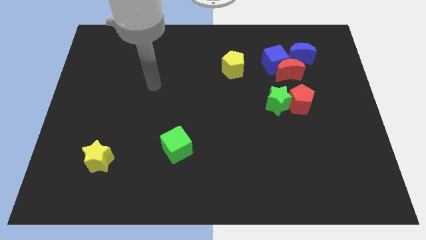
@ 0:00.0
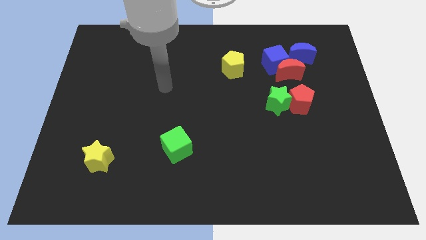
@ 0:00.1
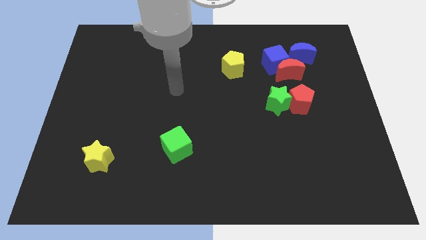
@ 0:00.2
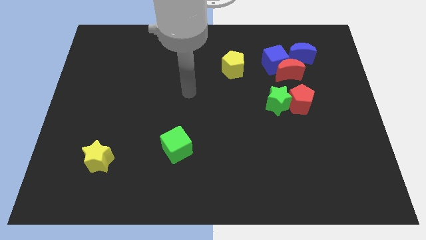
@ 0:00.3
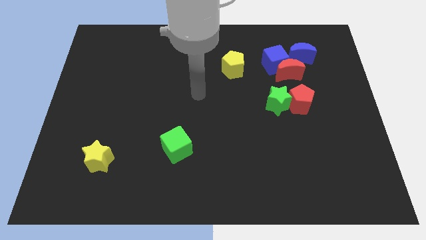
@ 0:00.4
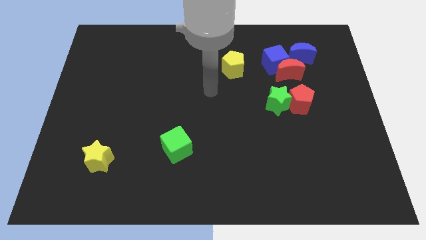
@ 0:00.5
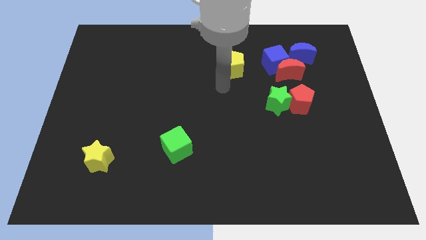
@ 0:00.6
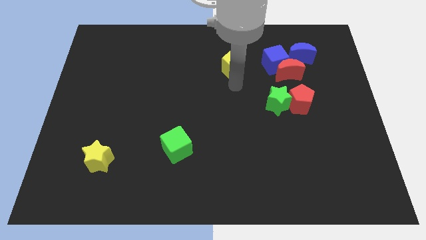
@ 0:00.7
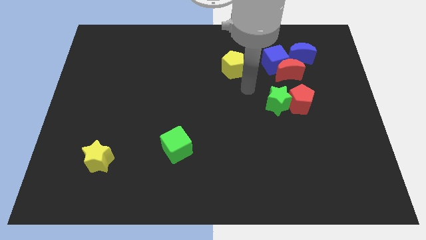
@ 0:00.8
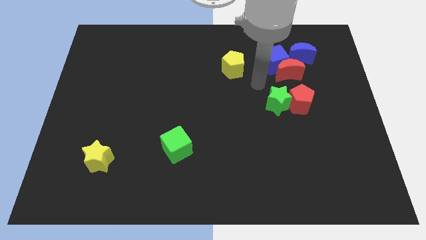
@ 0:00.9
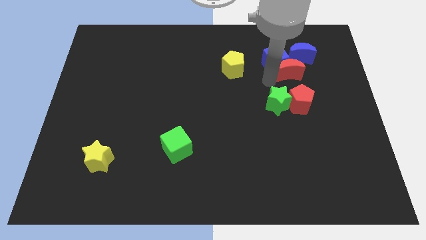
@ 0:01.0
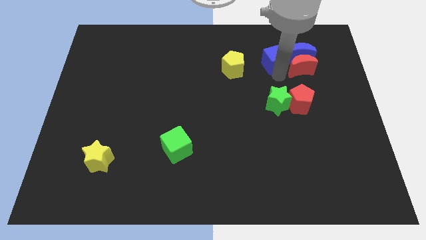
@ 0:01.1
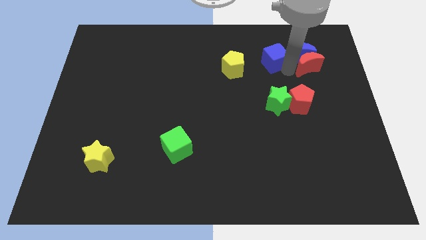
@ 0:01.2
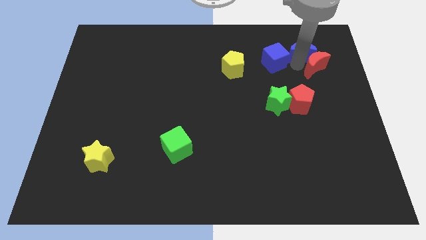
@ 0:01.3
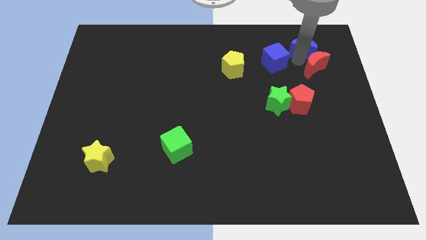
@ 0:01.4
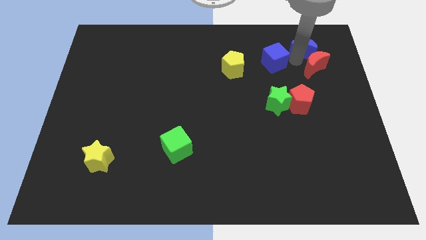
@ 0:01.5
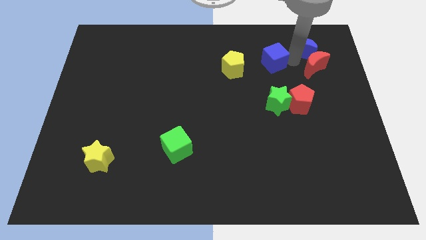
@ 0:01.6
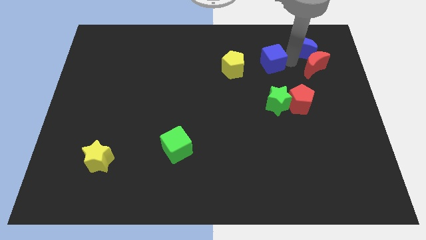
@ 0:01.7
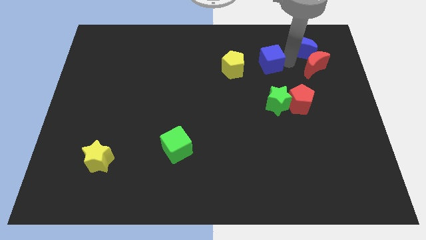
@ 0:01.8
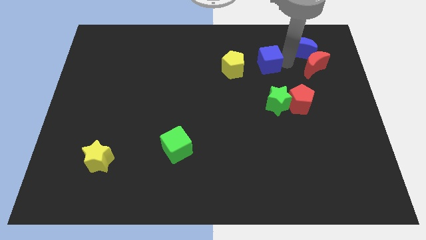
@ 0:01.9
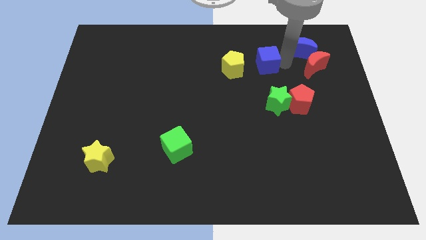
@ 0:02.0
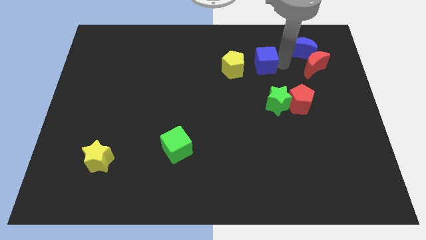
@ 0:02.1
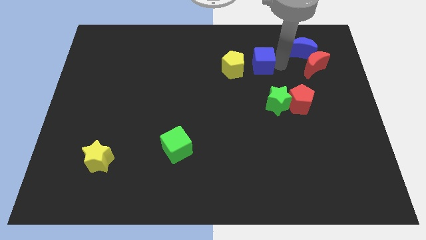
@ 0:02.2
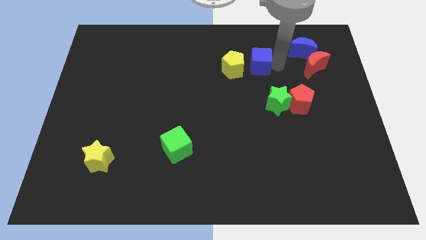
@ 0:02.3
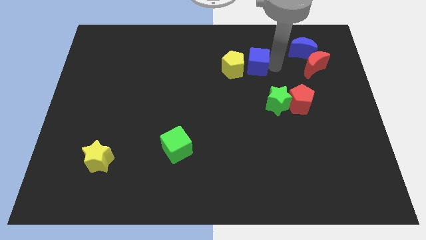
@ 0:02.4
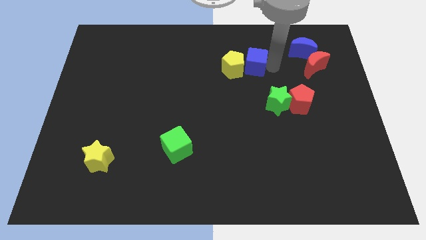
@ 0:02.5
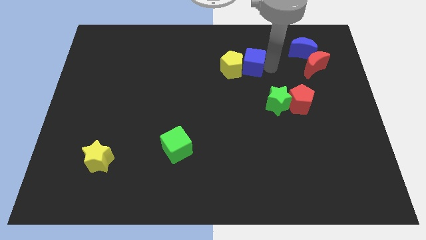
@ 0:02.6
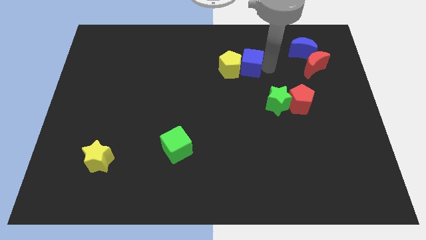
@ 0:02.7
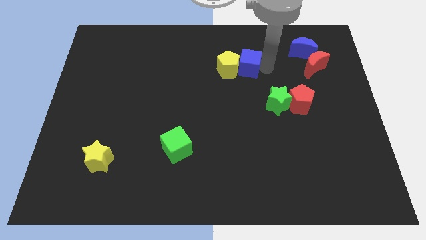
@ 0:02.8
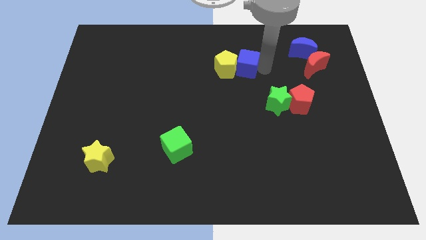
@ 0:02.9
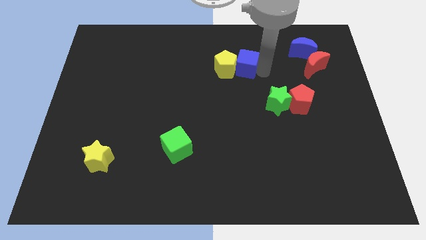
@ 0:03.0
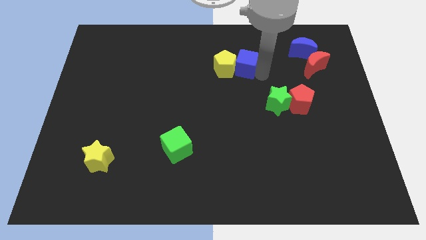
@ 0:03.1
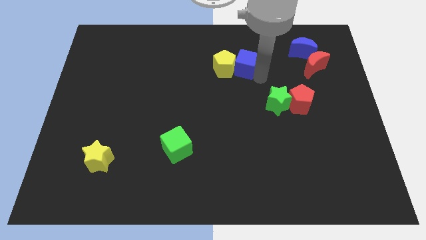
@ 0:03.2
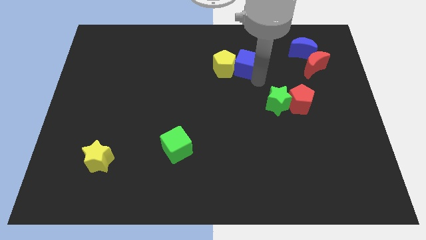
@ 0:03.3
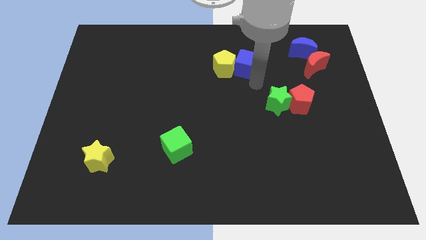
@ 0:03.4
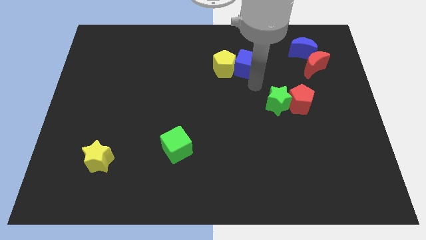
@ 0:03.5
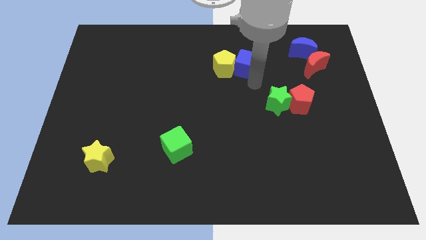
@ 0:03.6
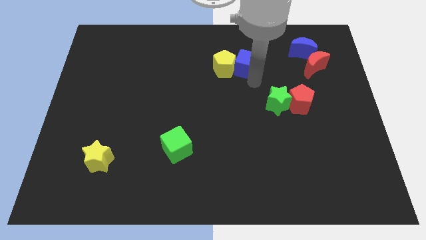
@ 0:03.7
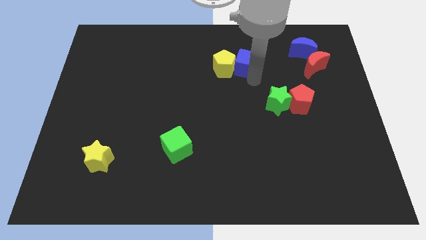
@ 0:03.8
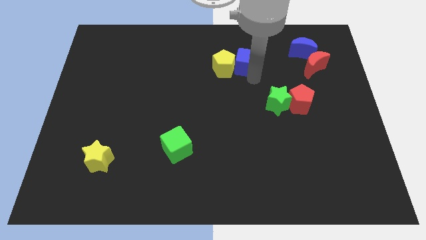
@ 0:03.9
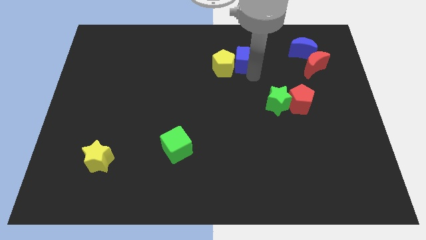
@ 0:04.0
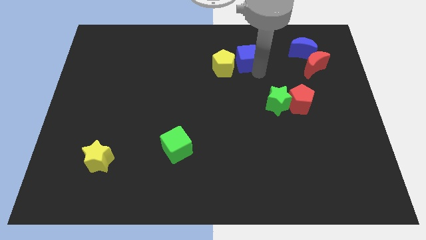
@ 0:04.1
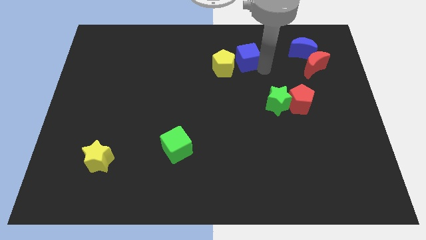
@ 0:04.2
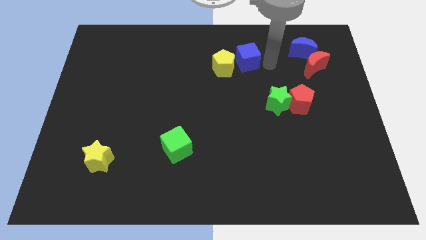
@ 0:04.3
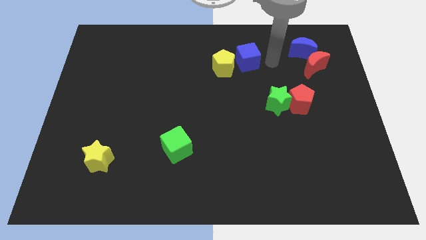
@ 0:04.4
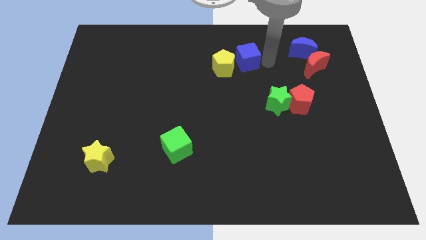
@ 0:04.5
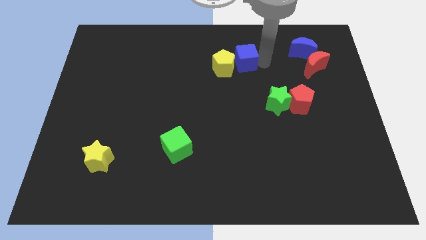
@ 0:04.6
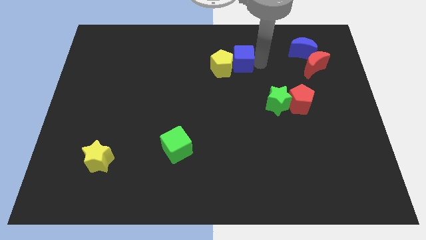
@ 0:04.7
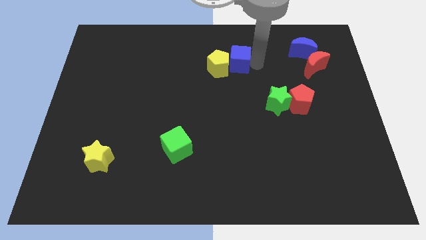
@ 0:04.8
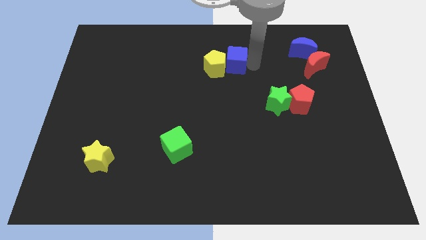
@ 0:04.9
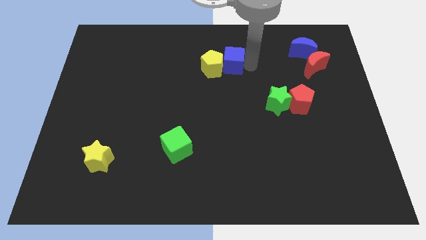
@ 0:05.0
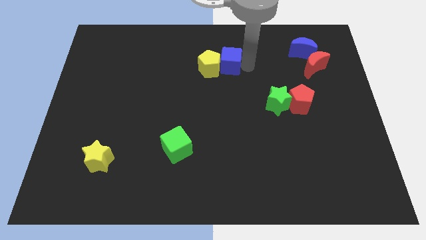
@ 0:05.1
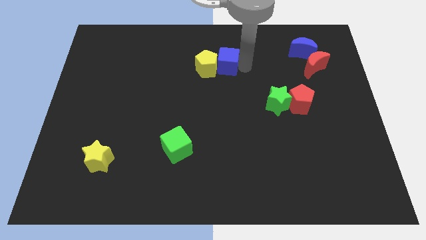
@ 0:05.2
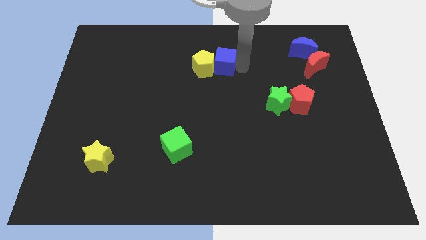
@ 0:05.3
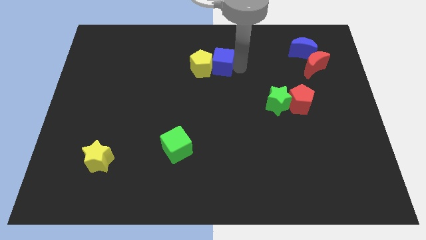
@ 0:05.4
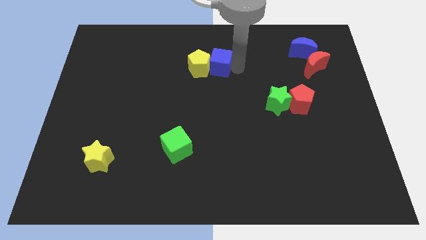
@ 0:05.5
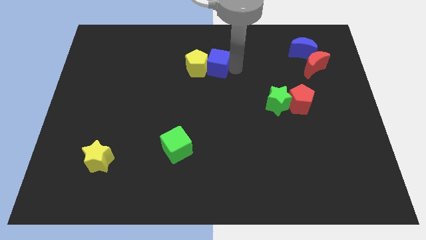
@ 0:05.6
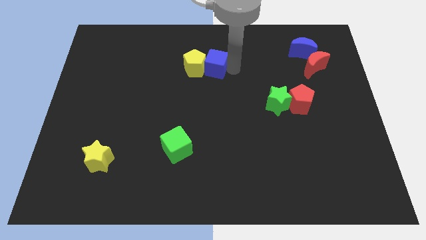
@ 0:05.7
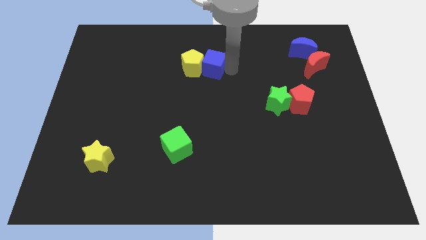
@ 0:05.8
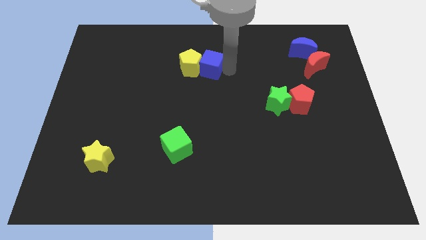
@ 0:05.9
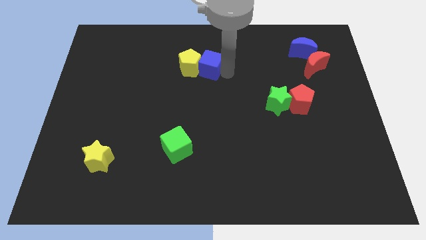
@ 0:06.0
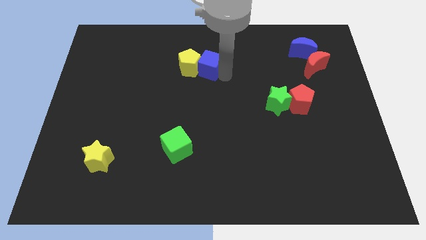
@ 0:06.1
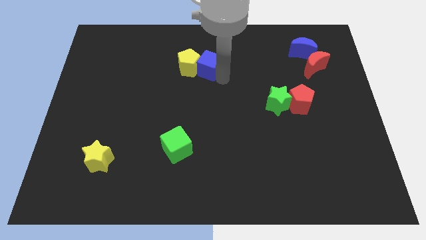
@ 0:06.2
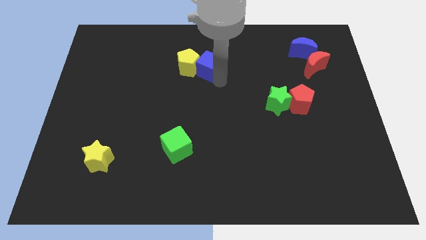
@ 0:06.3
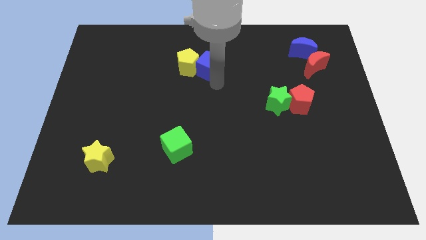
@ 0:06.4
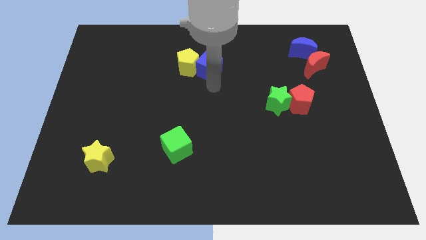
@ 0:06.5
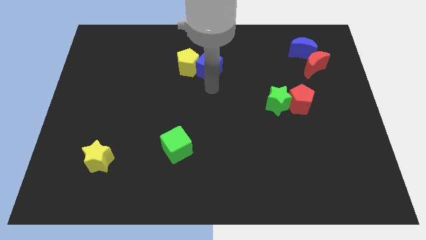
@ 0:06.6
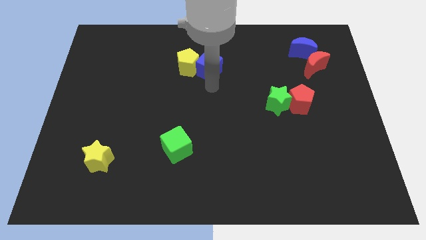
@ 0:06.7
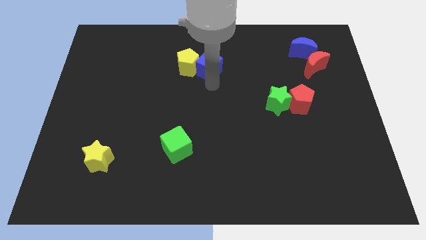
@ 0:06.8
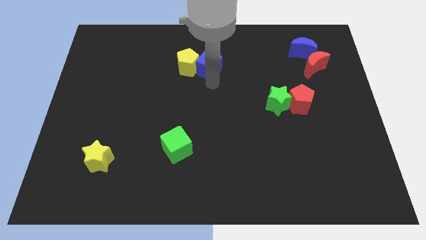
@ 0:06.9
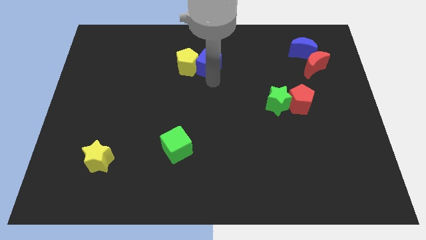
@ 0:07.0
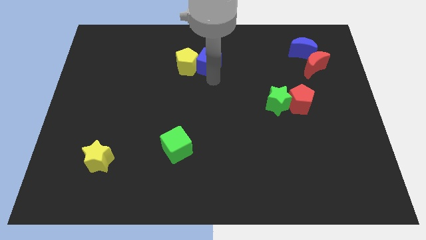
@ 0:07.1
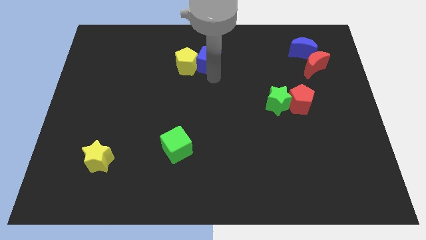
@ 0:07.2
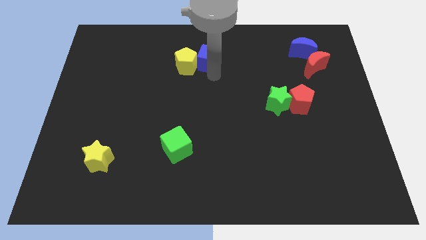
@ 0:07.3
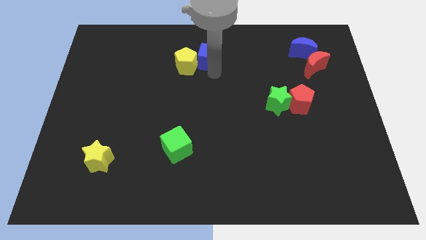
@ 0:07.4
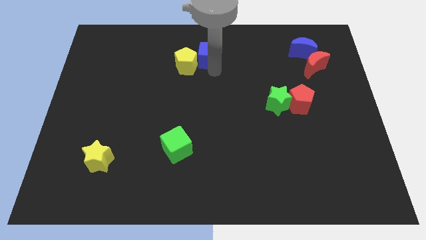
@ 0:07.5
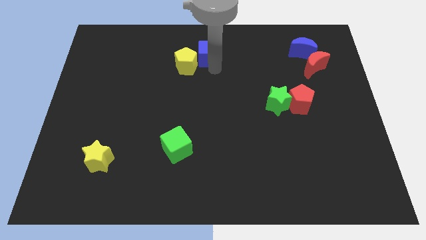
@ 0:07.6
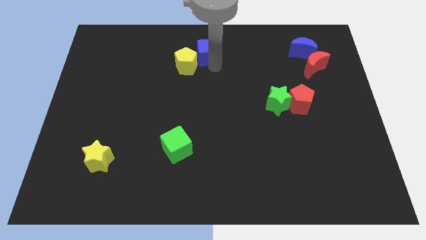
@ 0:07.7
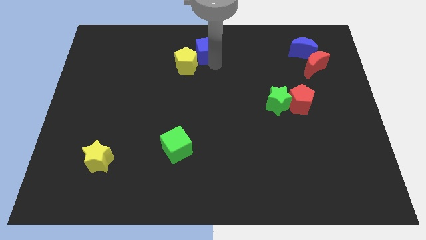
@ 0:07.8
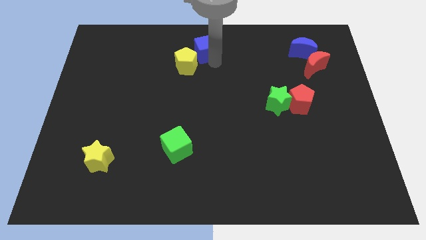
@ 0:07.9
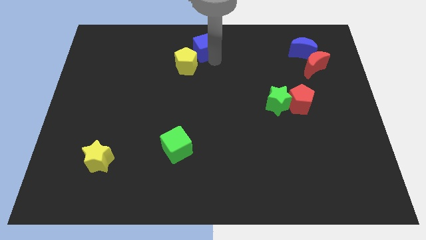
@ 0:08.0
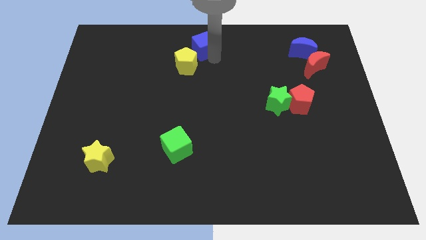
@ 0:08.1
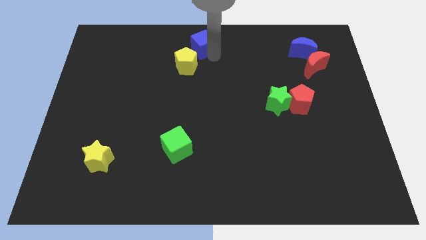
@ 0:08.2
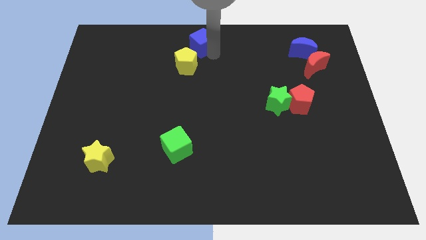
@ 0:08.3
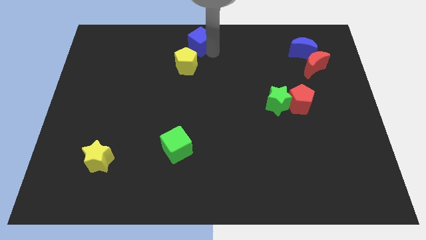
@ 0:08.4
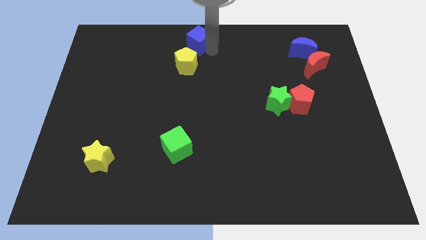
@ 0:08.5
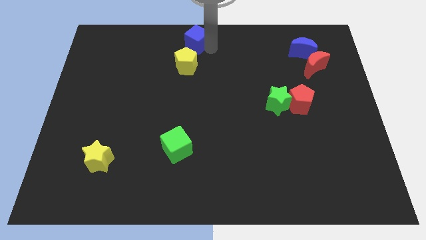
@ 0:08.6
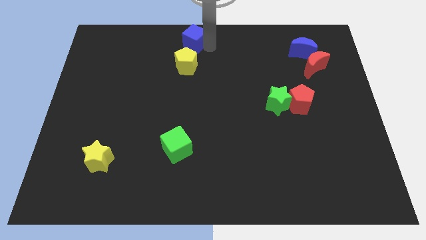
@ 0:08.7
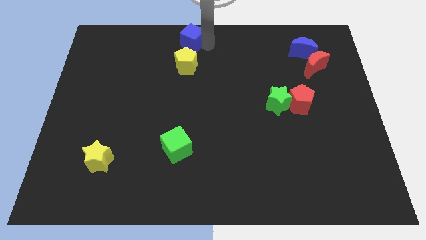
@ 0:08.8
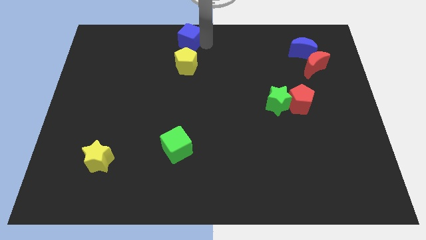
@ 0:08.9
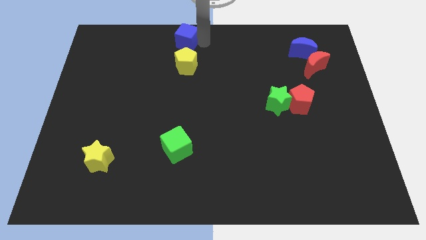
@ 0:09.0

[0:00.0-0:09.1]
push the blue cube to the left
